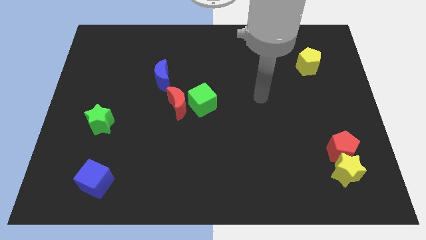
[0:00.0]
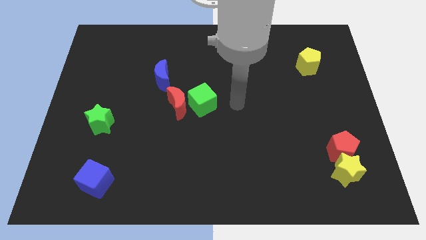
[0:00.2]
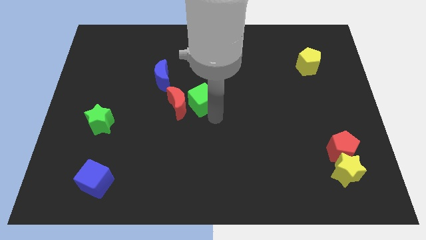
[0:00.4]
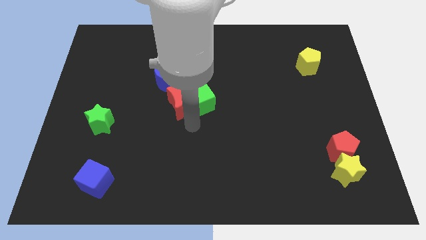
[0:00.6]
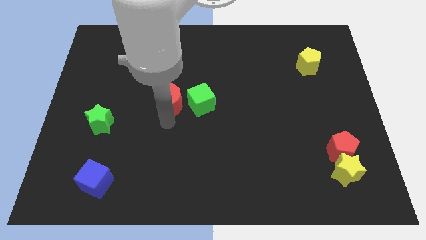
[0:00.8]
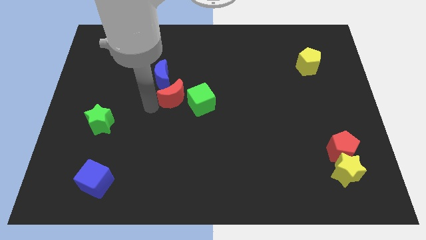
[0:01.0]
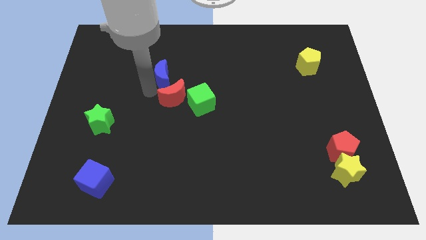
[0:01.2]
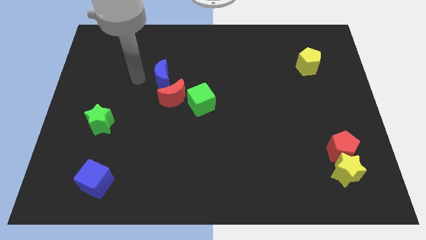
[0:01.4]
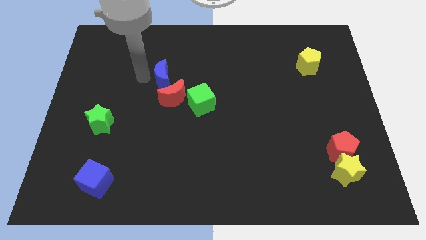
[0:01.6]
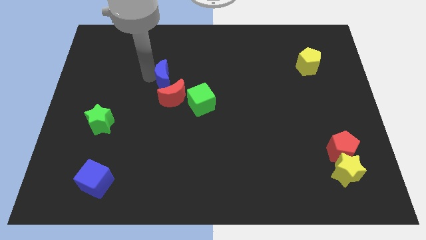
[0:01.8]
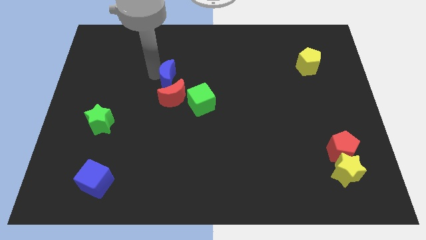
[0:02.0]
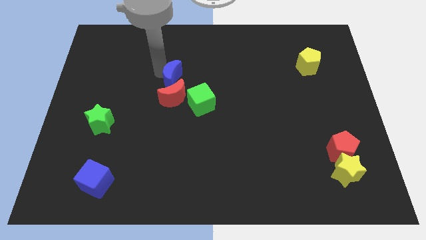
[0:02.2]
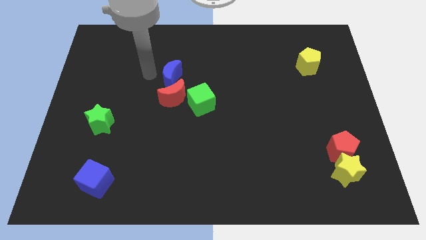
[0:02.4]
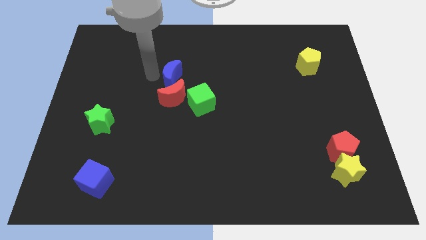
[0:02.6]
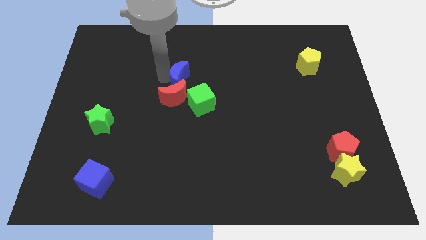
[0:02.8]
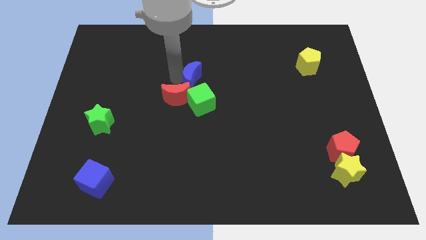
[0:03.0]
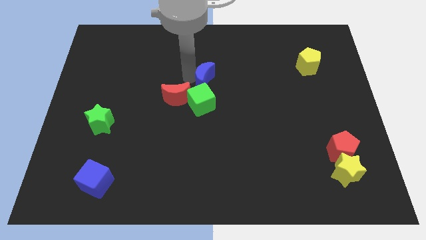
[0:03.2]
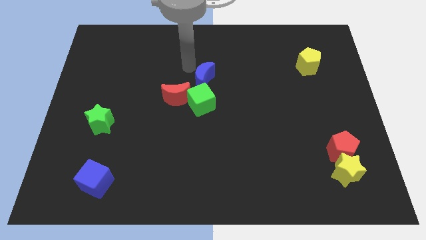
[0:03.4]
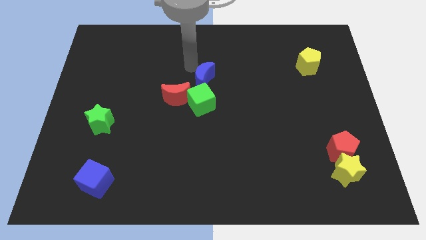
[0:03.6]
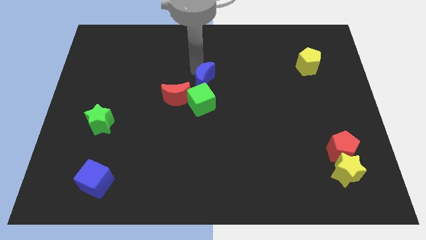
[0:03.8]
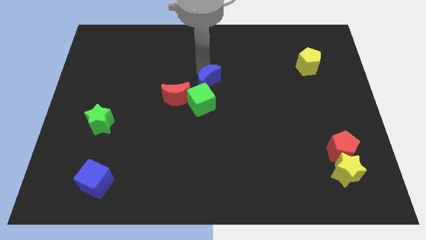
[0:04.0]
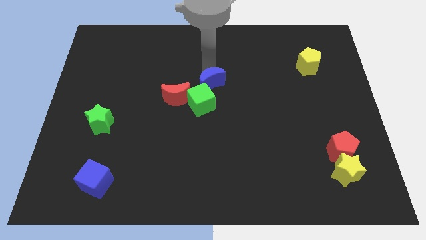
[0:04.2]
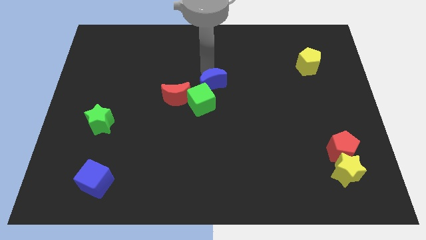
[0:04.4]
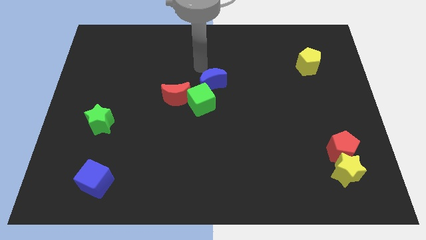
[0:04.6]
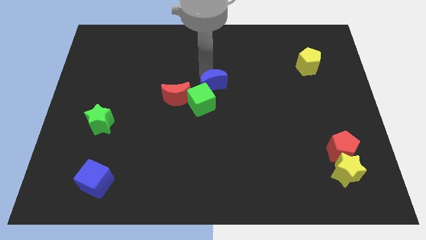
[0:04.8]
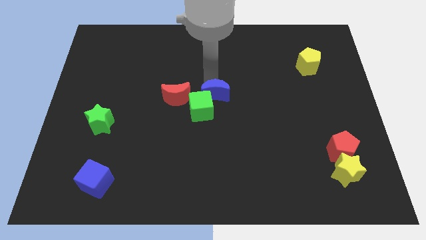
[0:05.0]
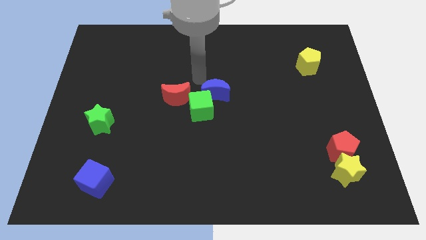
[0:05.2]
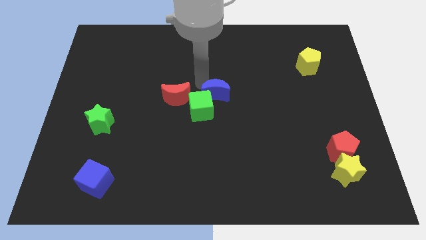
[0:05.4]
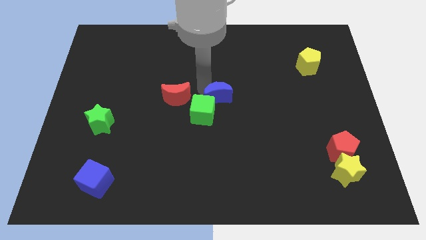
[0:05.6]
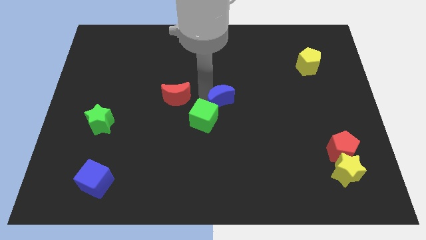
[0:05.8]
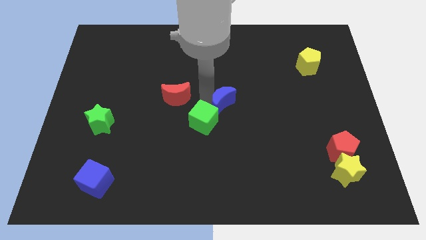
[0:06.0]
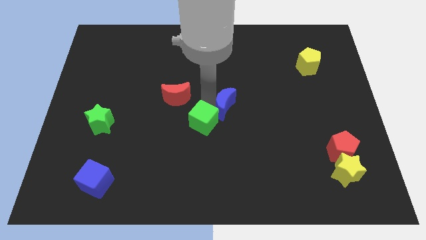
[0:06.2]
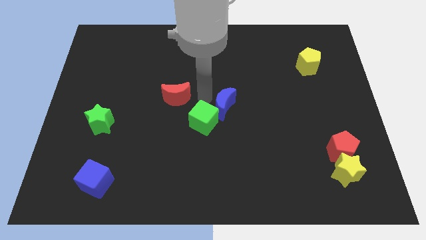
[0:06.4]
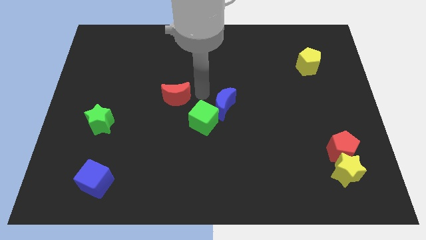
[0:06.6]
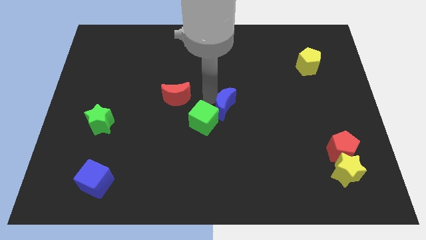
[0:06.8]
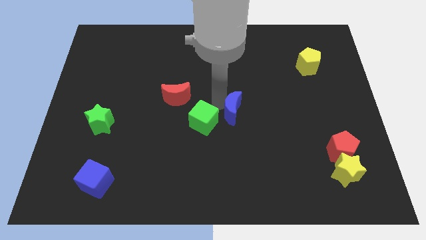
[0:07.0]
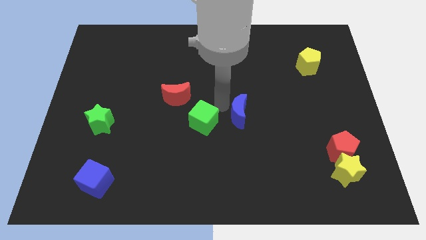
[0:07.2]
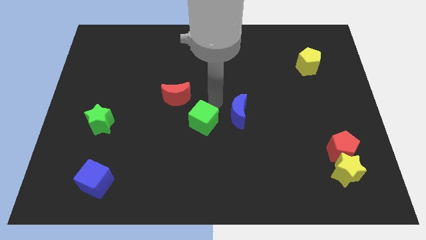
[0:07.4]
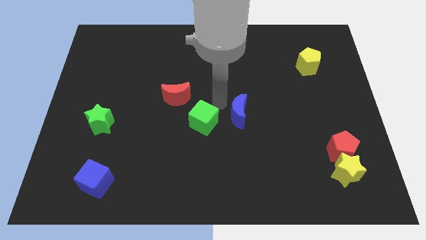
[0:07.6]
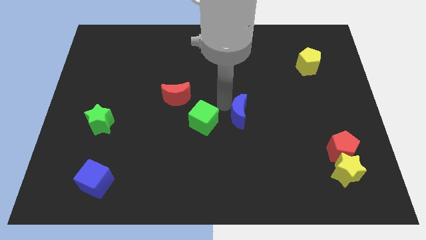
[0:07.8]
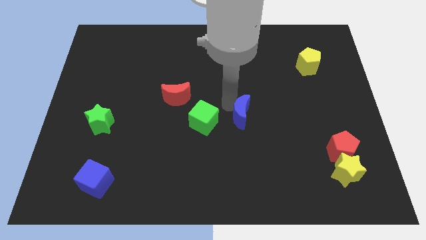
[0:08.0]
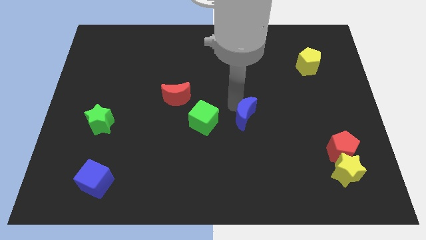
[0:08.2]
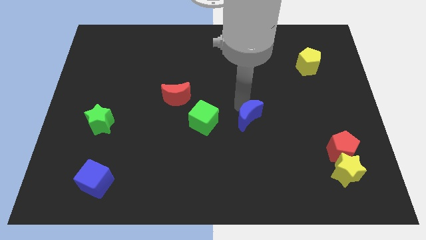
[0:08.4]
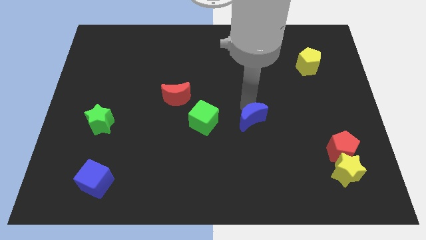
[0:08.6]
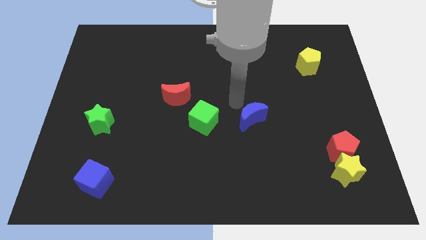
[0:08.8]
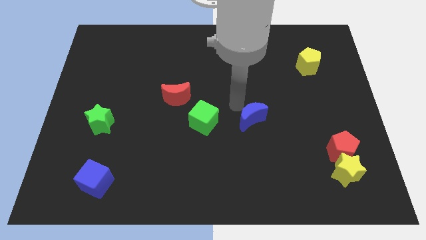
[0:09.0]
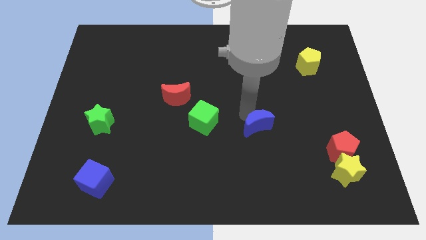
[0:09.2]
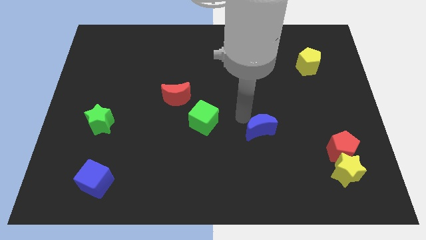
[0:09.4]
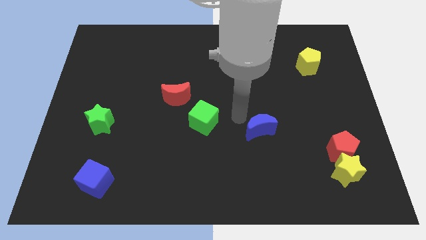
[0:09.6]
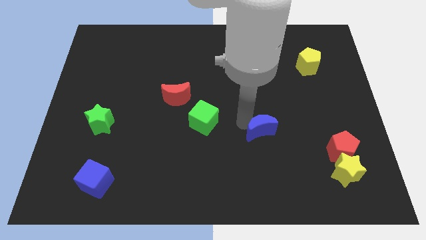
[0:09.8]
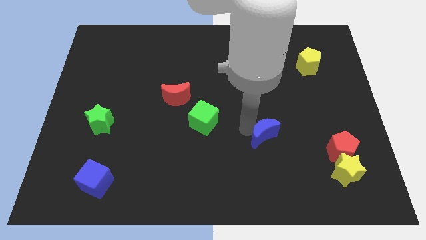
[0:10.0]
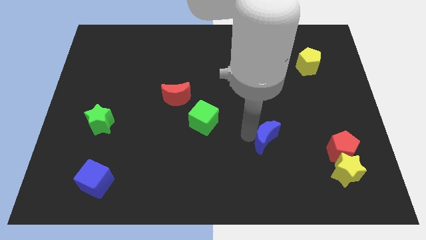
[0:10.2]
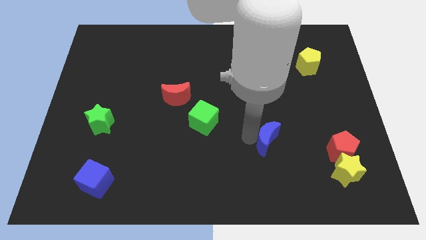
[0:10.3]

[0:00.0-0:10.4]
move the blue moon left of the red pentagon

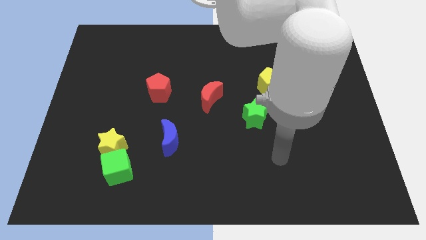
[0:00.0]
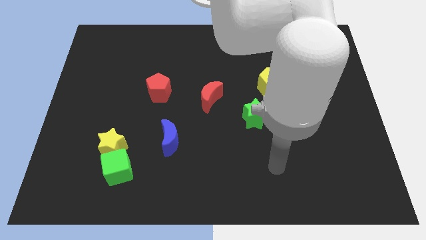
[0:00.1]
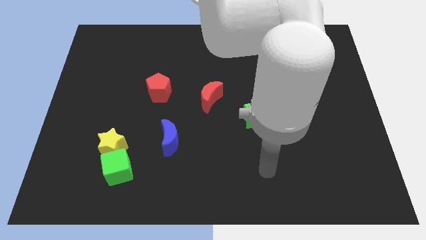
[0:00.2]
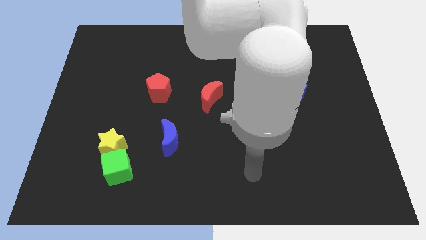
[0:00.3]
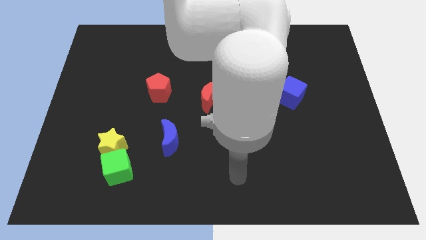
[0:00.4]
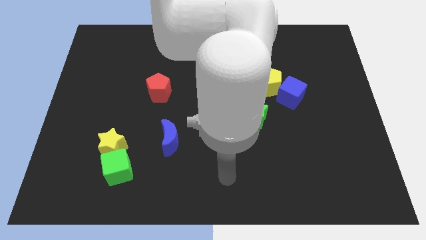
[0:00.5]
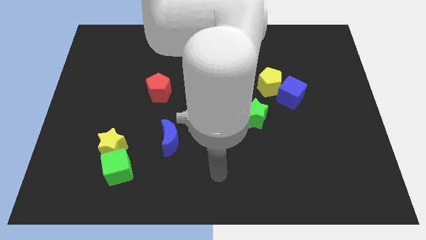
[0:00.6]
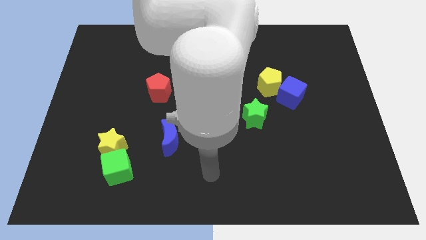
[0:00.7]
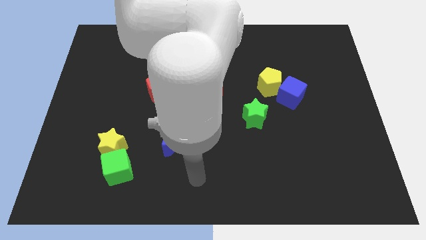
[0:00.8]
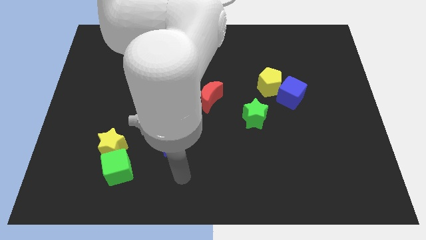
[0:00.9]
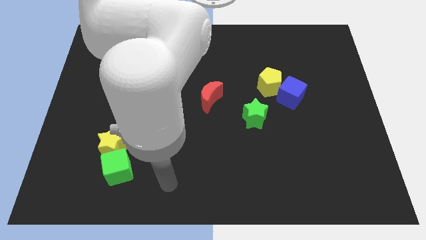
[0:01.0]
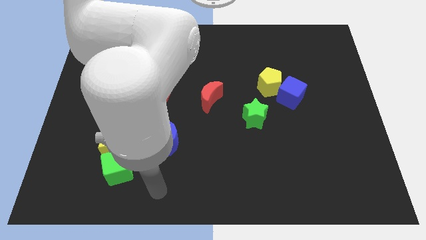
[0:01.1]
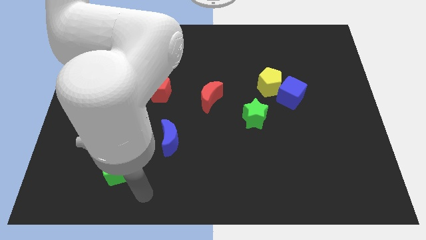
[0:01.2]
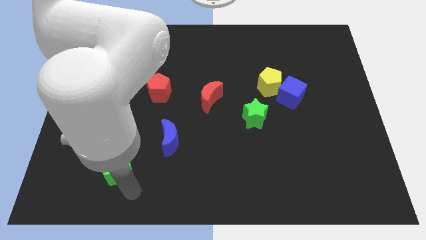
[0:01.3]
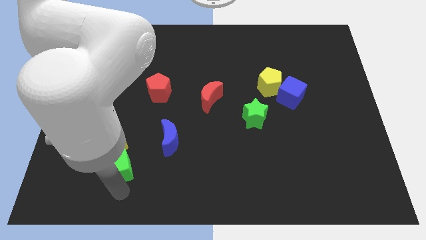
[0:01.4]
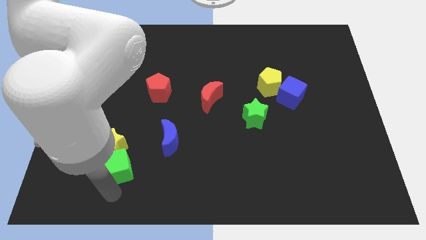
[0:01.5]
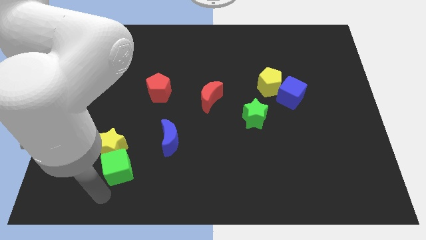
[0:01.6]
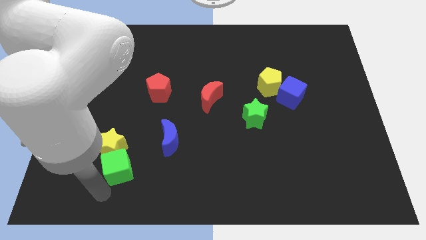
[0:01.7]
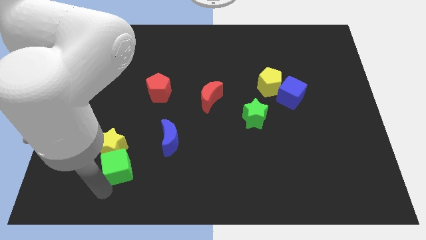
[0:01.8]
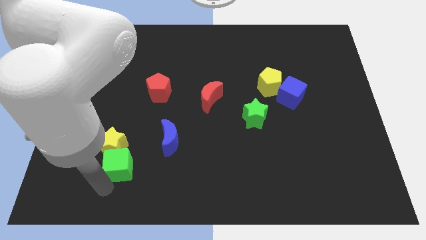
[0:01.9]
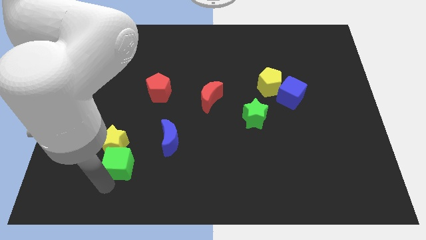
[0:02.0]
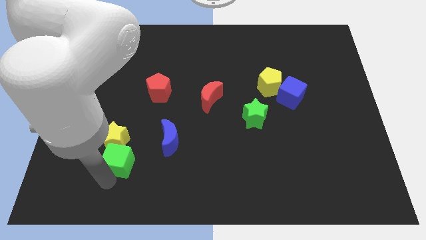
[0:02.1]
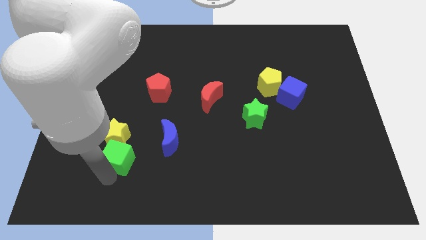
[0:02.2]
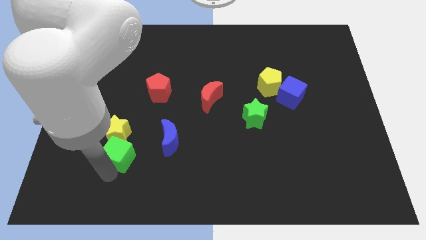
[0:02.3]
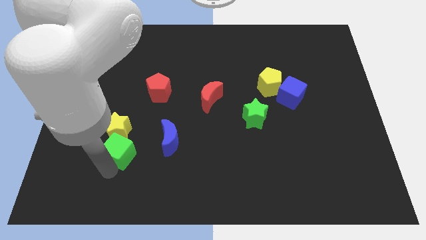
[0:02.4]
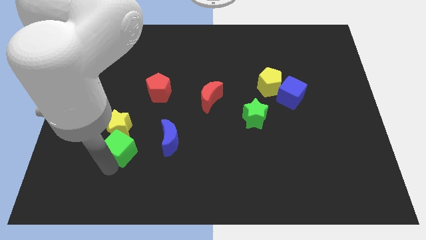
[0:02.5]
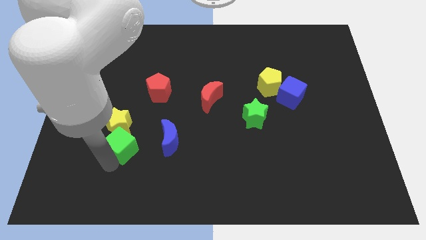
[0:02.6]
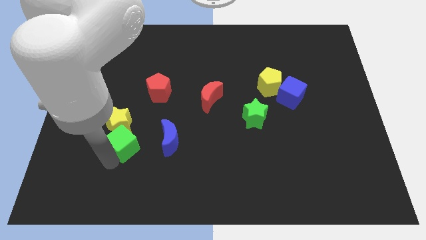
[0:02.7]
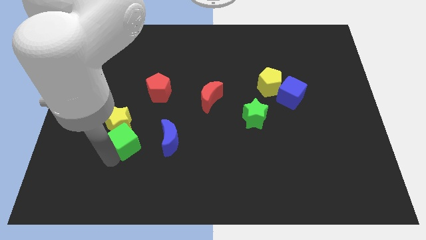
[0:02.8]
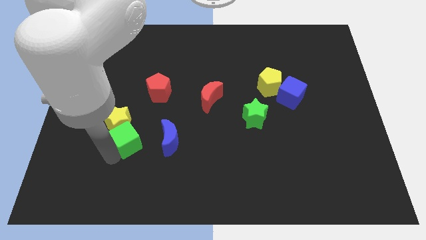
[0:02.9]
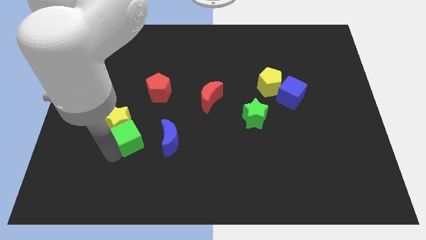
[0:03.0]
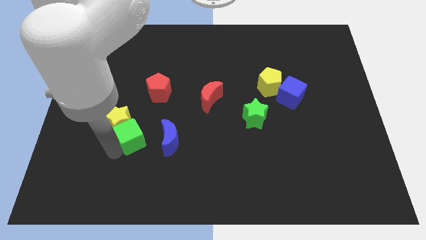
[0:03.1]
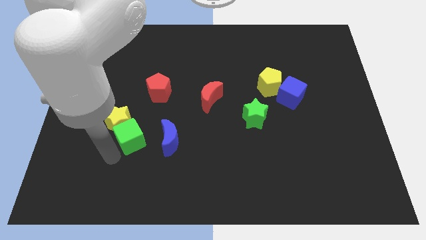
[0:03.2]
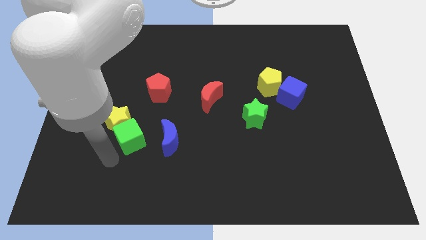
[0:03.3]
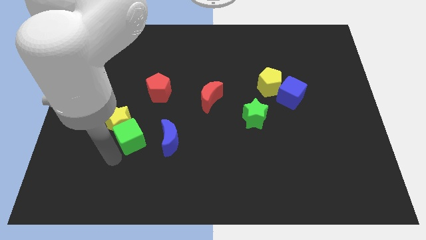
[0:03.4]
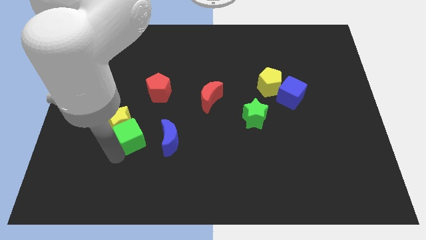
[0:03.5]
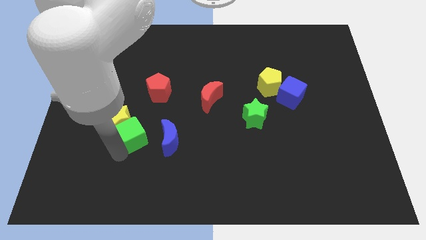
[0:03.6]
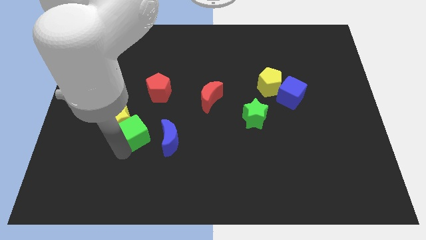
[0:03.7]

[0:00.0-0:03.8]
push the green cube to the top left side of the blue moon
